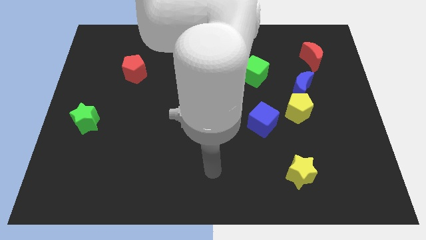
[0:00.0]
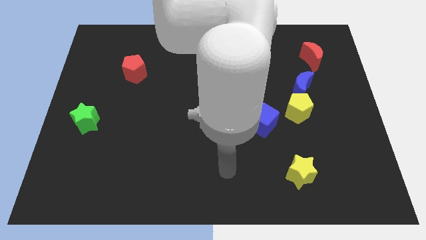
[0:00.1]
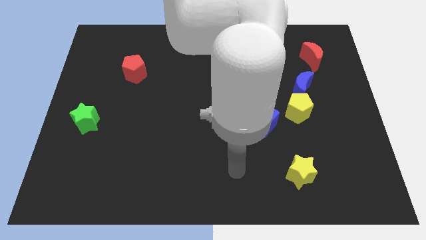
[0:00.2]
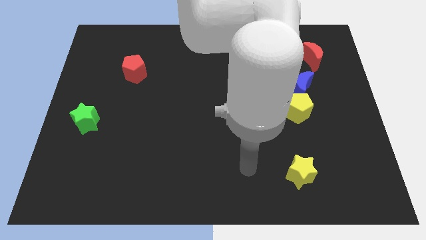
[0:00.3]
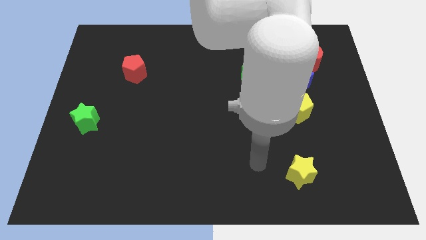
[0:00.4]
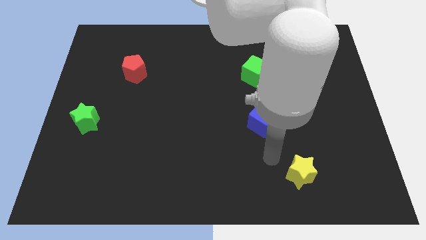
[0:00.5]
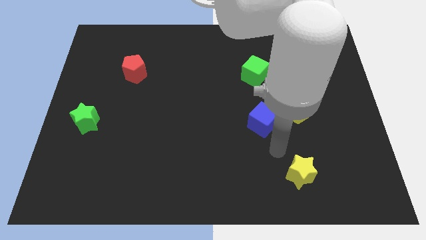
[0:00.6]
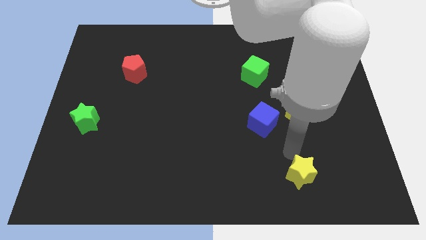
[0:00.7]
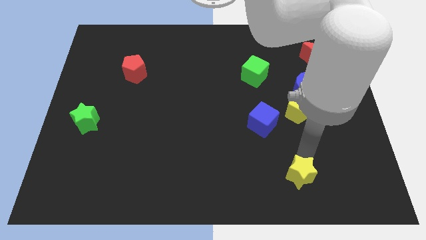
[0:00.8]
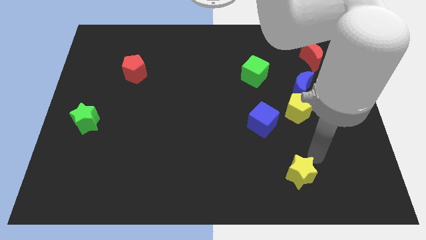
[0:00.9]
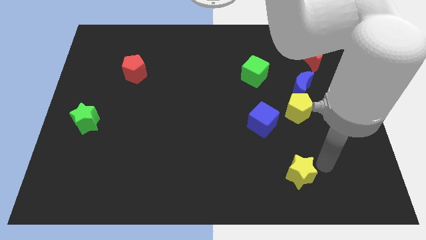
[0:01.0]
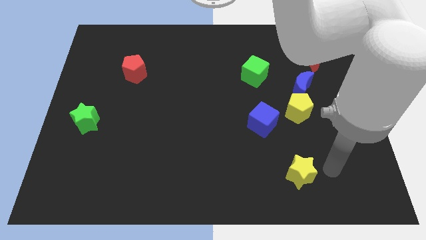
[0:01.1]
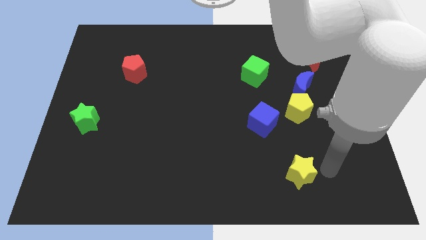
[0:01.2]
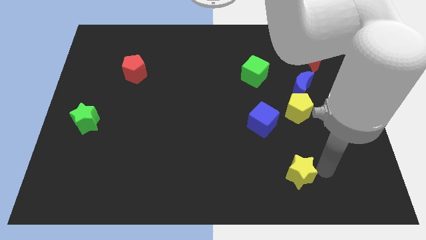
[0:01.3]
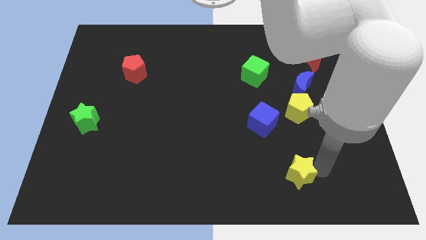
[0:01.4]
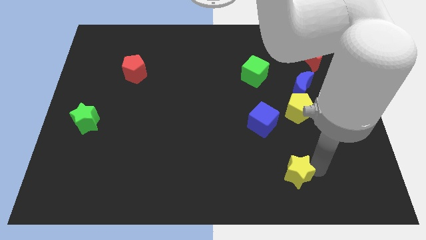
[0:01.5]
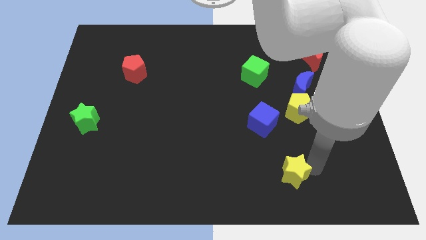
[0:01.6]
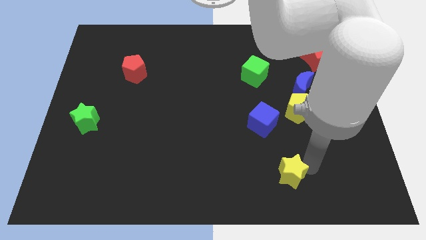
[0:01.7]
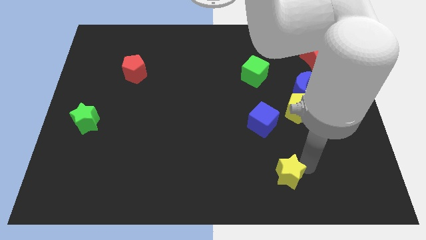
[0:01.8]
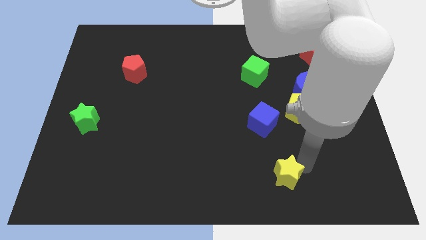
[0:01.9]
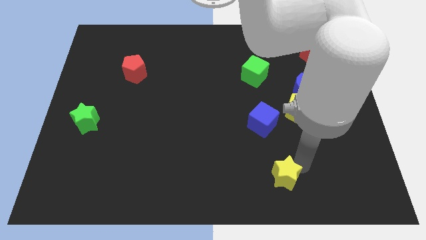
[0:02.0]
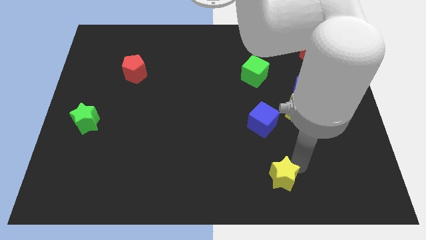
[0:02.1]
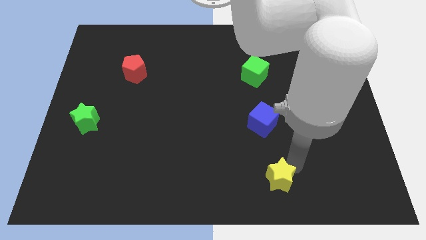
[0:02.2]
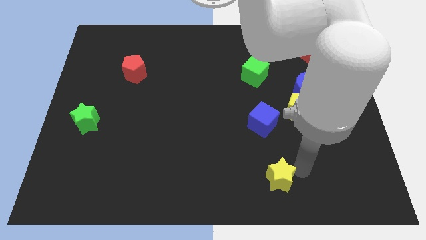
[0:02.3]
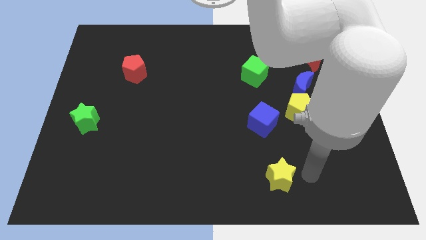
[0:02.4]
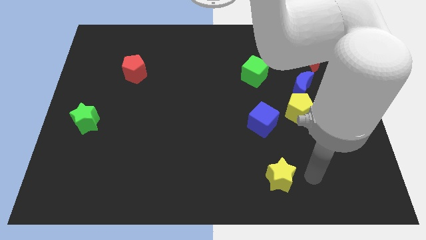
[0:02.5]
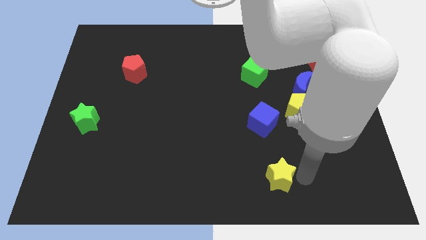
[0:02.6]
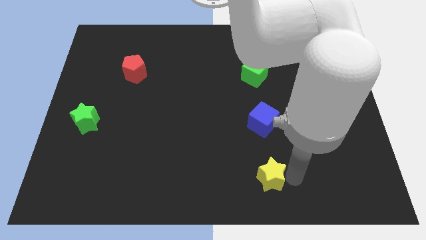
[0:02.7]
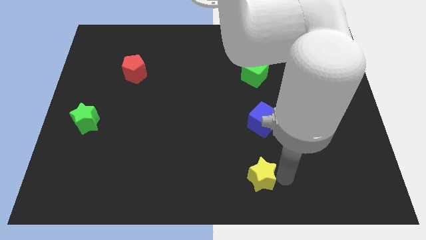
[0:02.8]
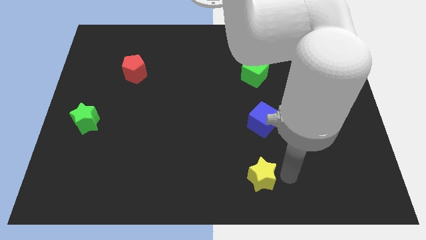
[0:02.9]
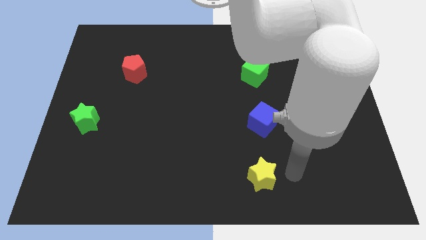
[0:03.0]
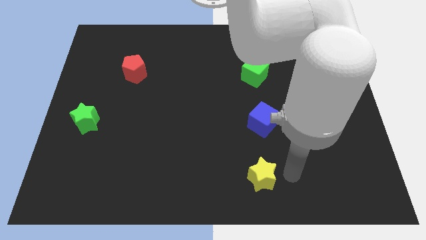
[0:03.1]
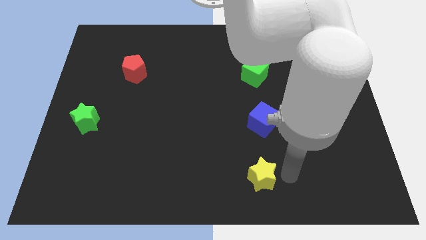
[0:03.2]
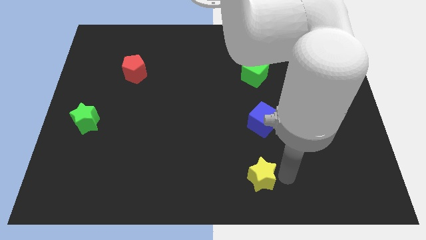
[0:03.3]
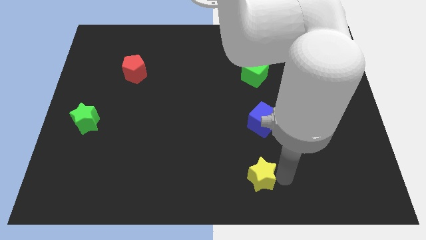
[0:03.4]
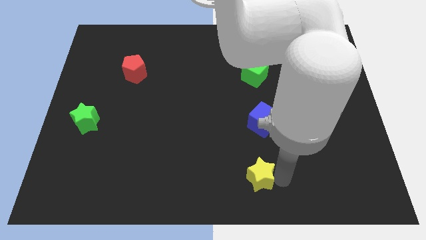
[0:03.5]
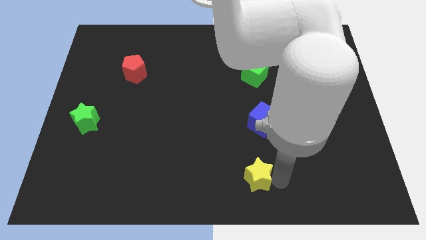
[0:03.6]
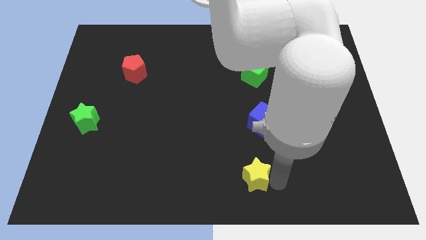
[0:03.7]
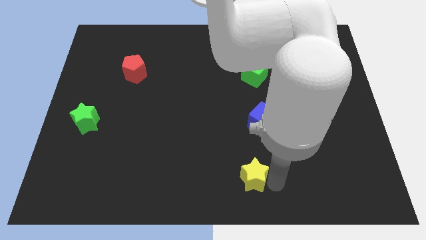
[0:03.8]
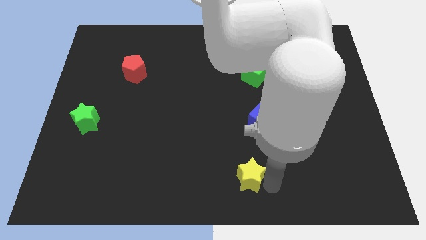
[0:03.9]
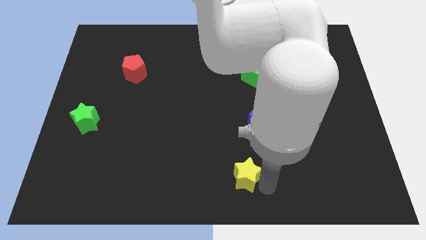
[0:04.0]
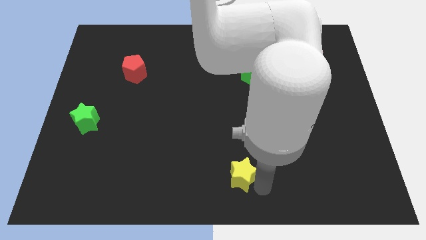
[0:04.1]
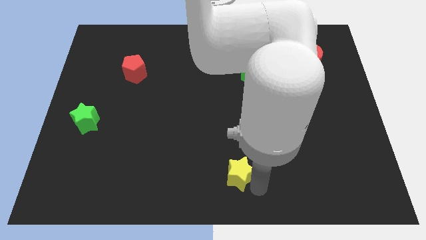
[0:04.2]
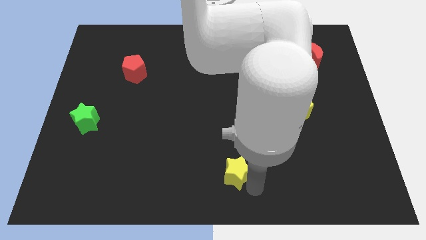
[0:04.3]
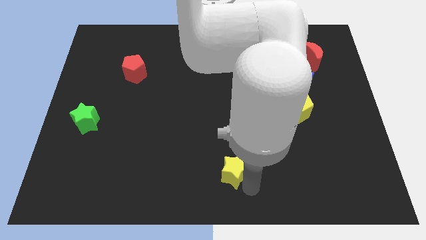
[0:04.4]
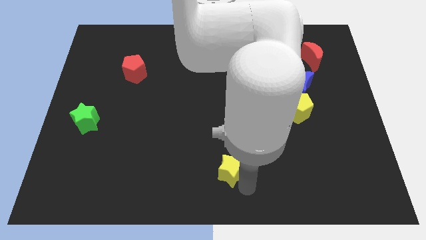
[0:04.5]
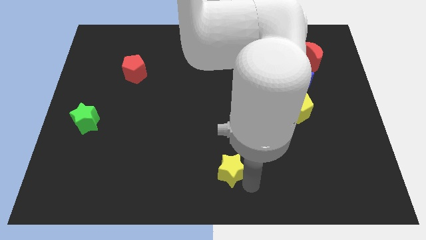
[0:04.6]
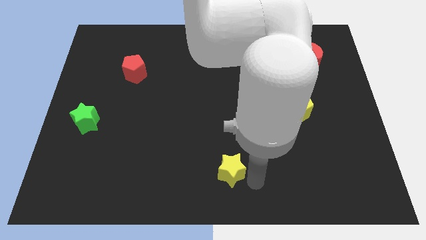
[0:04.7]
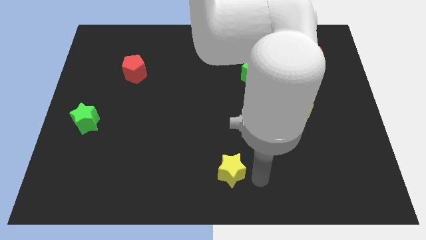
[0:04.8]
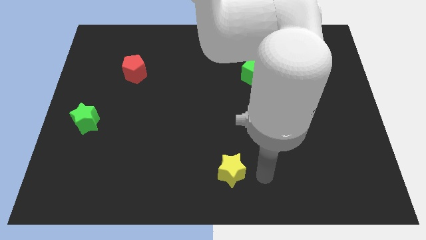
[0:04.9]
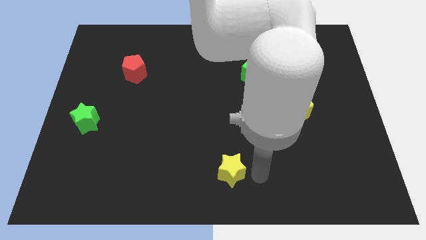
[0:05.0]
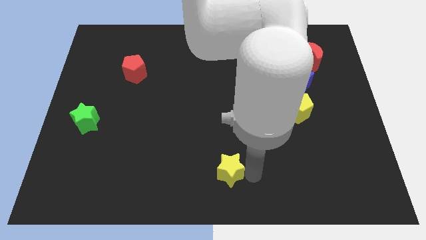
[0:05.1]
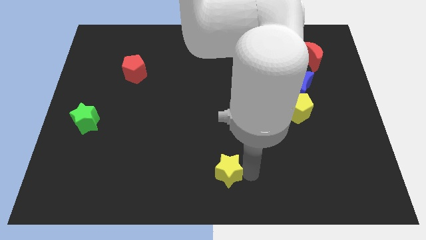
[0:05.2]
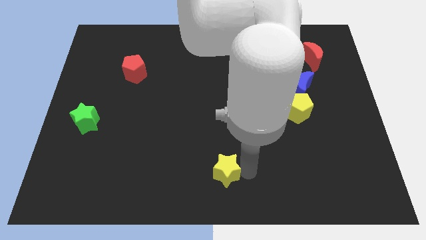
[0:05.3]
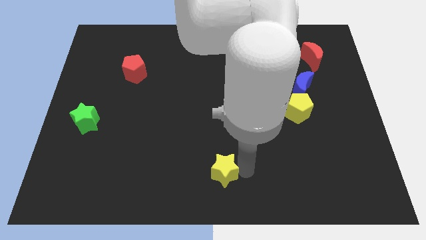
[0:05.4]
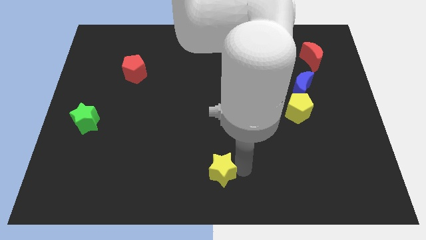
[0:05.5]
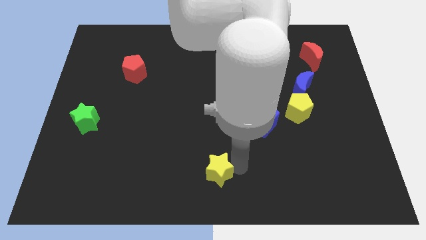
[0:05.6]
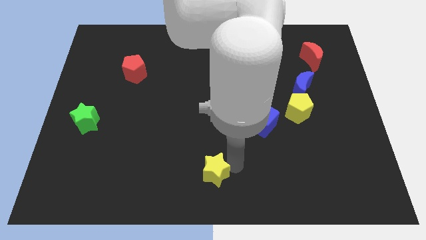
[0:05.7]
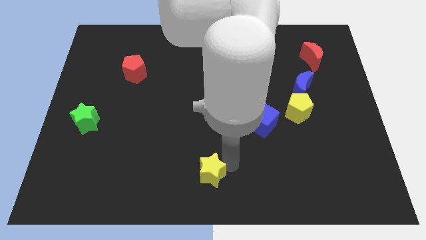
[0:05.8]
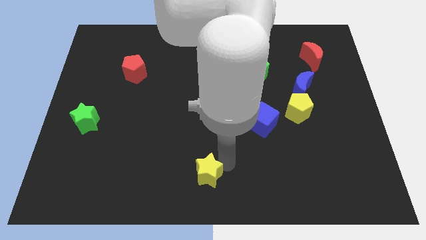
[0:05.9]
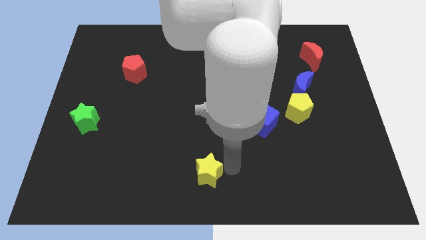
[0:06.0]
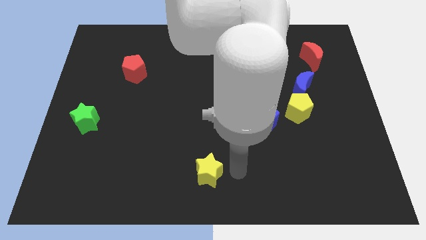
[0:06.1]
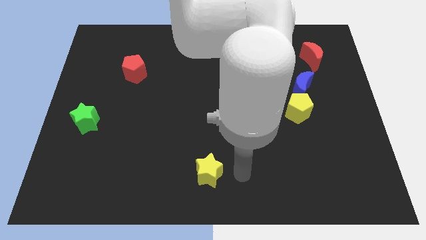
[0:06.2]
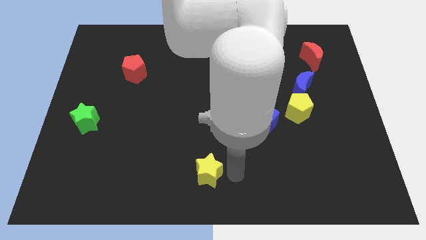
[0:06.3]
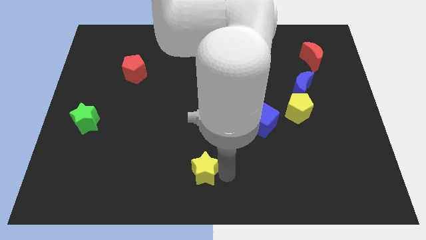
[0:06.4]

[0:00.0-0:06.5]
push the yellow star to the left

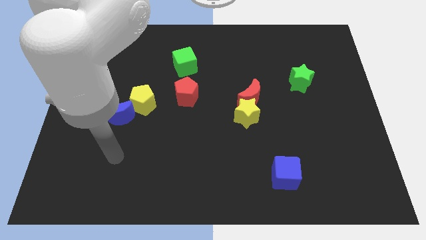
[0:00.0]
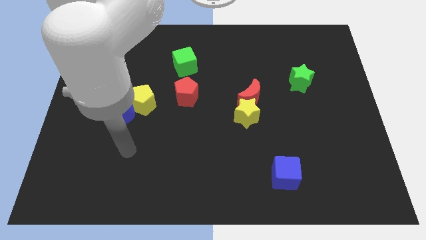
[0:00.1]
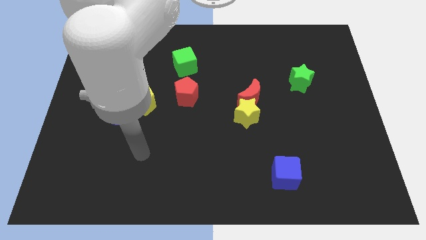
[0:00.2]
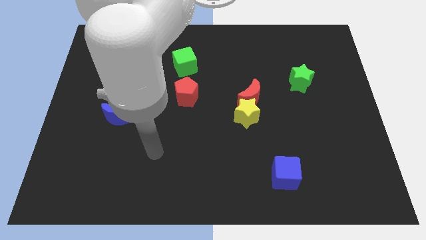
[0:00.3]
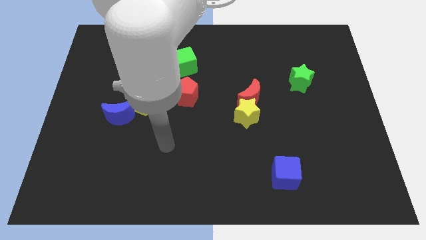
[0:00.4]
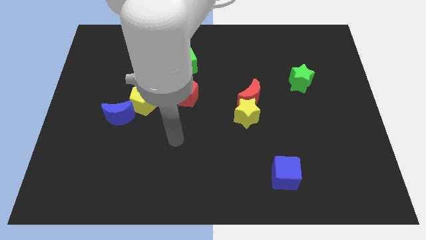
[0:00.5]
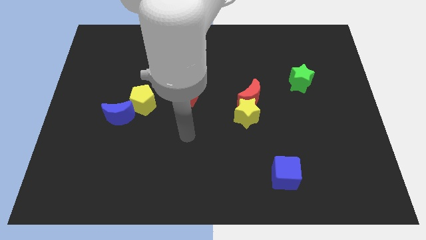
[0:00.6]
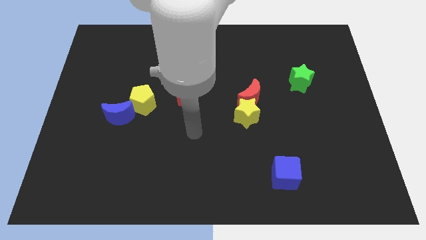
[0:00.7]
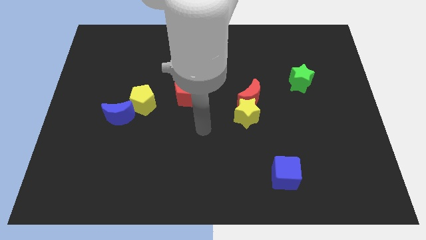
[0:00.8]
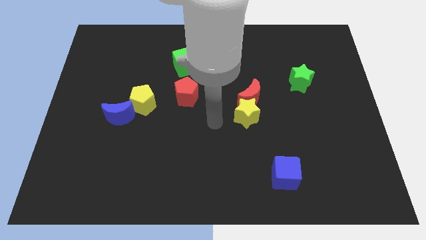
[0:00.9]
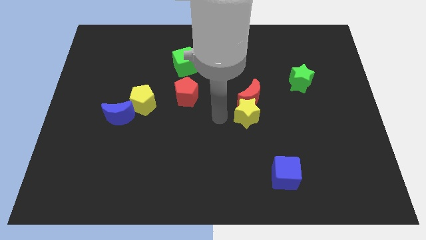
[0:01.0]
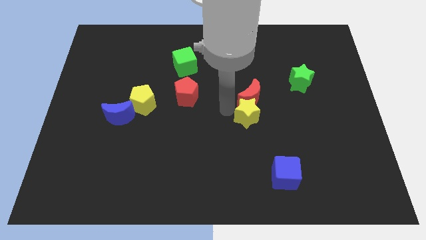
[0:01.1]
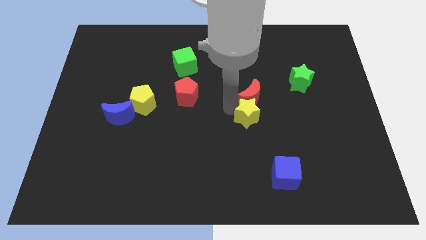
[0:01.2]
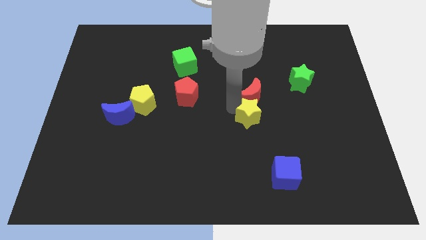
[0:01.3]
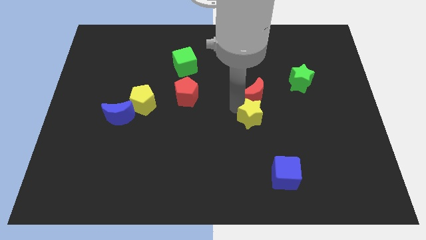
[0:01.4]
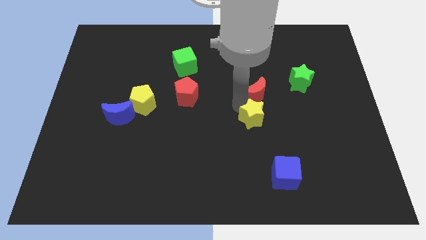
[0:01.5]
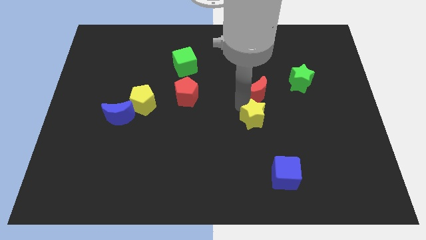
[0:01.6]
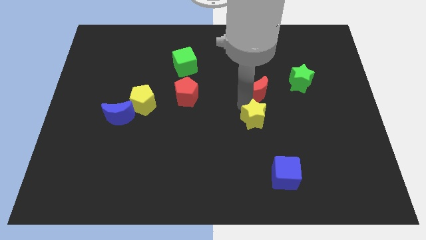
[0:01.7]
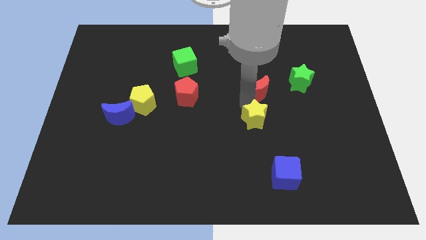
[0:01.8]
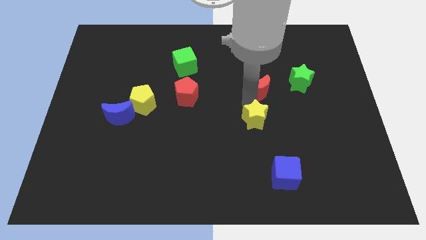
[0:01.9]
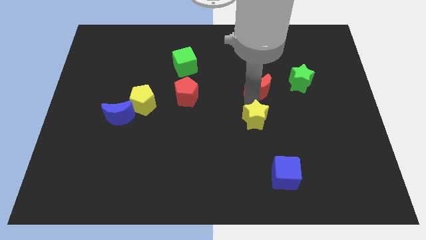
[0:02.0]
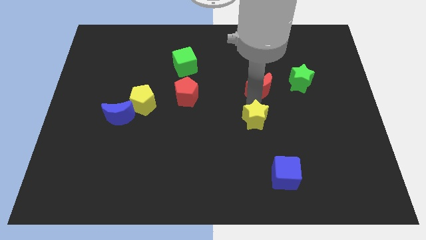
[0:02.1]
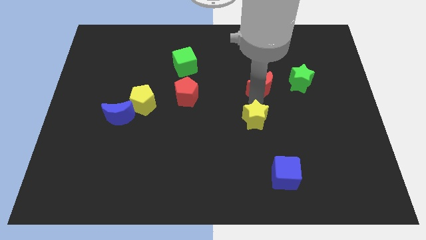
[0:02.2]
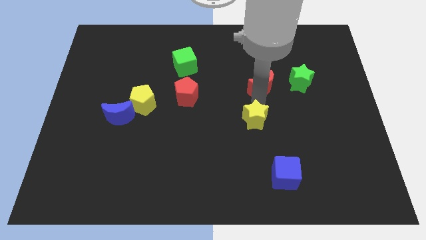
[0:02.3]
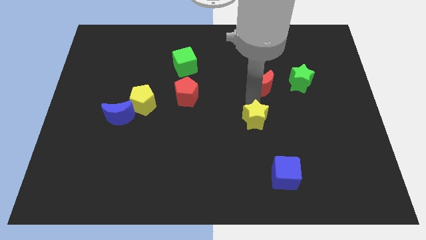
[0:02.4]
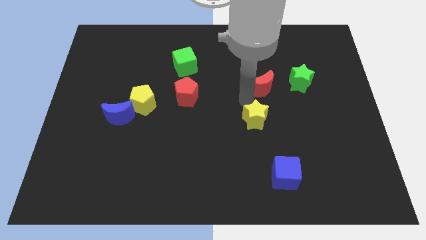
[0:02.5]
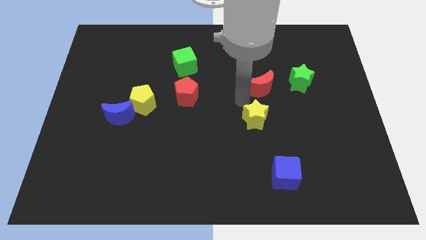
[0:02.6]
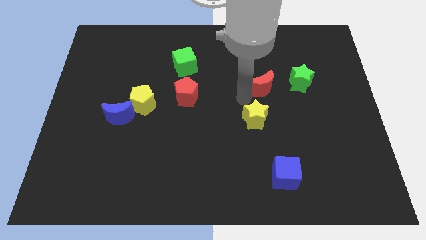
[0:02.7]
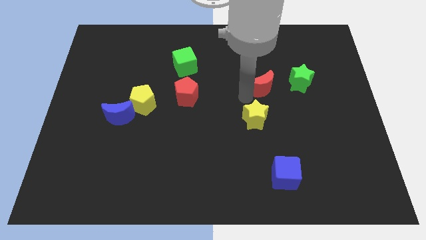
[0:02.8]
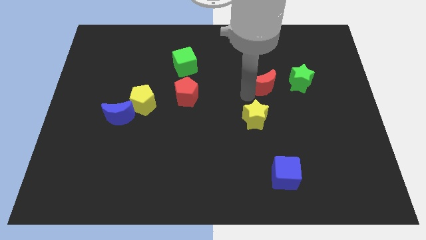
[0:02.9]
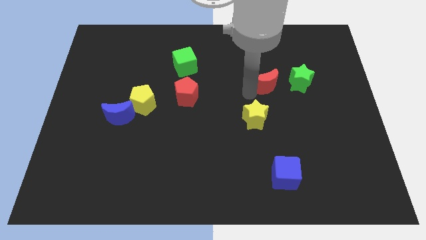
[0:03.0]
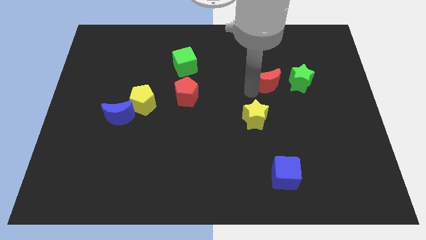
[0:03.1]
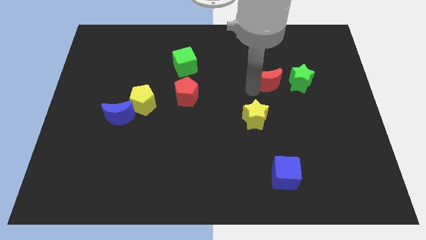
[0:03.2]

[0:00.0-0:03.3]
slide the red moon up and to the right diagonally a little bit
